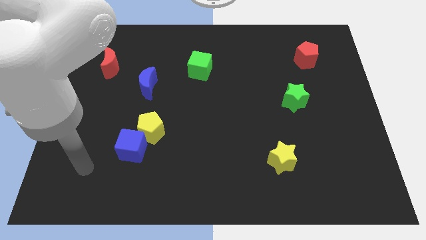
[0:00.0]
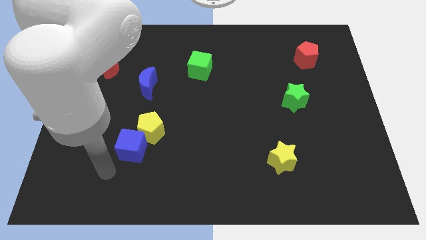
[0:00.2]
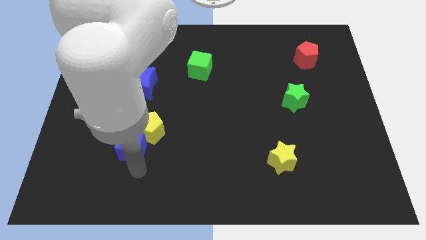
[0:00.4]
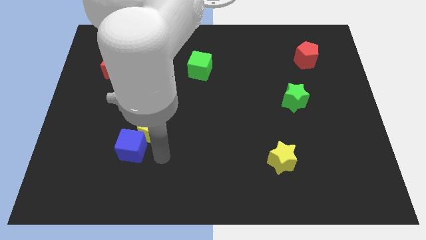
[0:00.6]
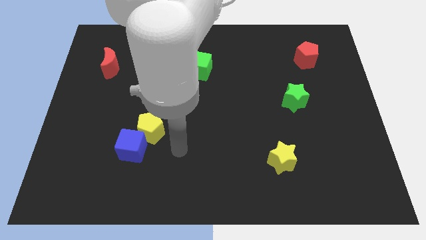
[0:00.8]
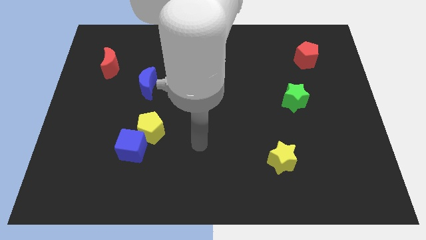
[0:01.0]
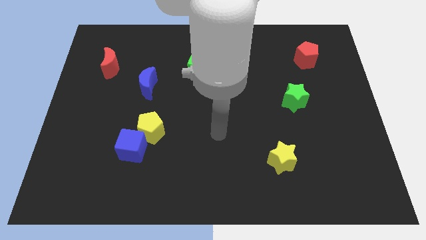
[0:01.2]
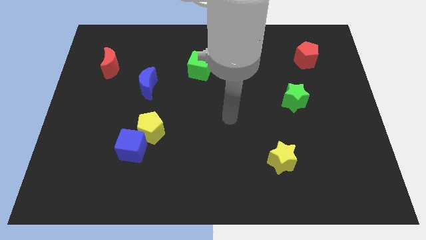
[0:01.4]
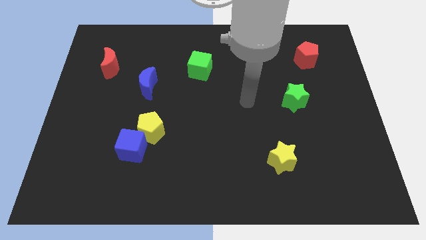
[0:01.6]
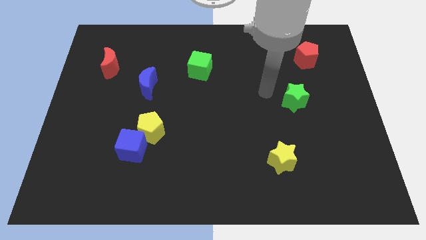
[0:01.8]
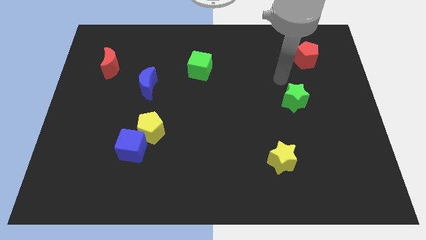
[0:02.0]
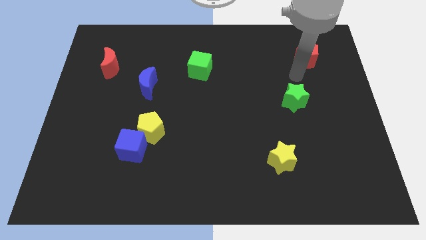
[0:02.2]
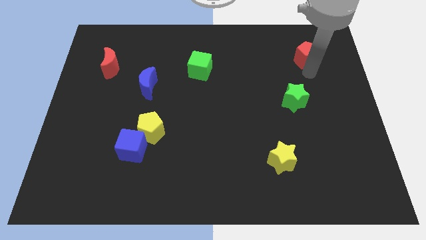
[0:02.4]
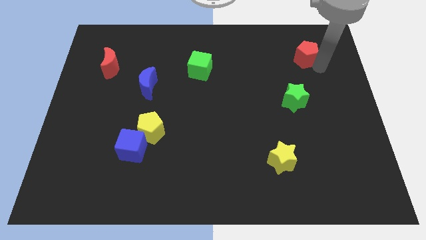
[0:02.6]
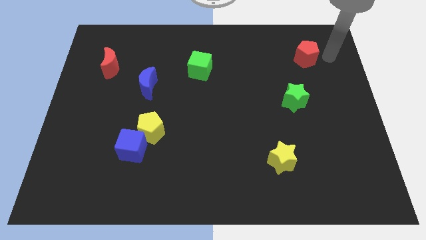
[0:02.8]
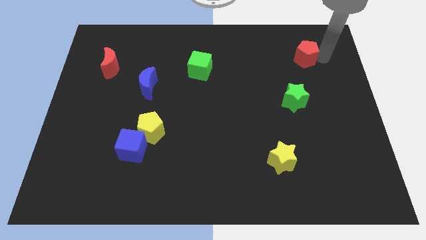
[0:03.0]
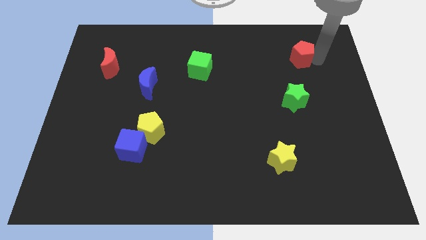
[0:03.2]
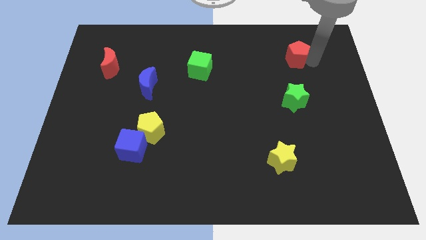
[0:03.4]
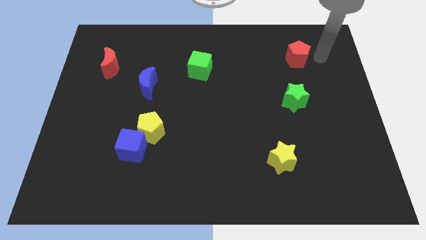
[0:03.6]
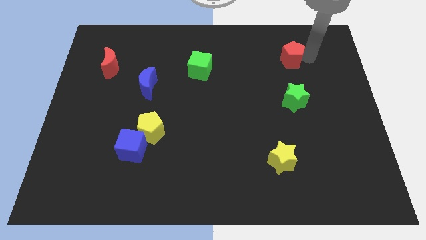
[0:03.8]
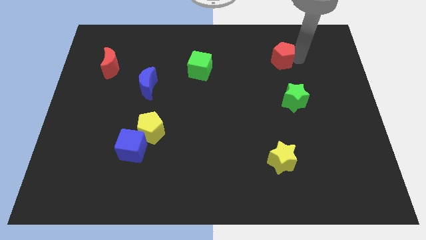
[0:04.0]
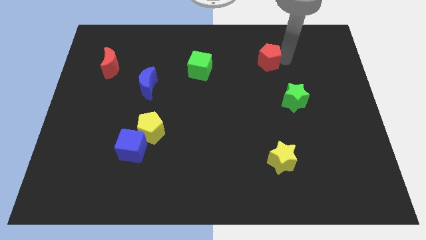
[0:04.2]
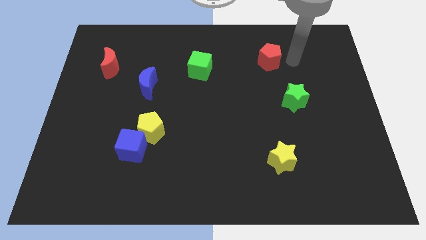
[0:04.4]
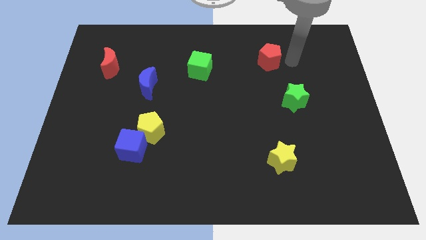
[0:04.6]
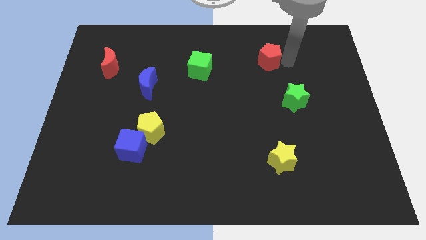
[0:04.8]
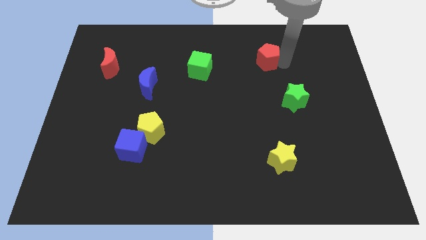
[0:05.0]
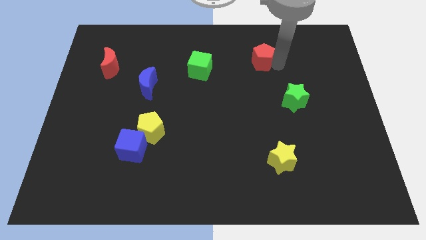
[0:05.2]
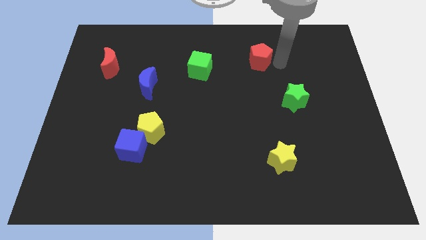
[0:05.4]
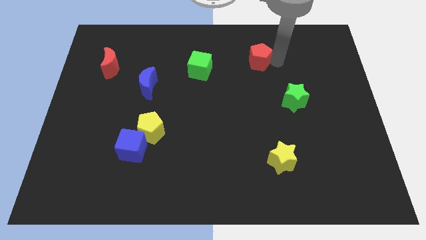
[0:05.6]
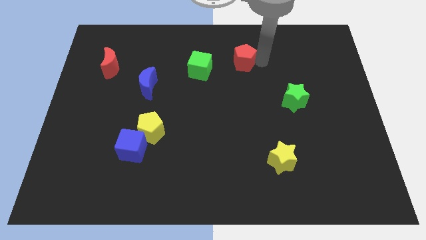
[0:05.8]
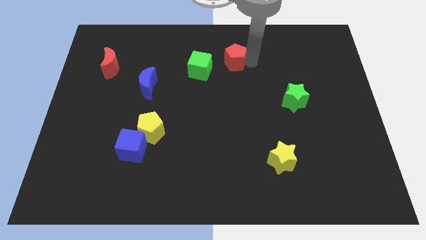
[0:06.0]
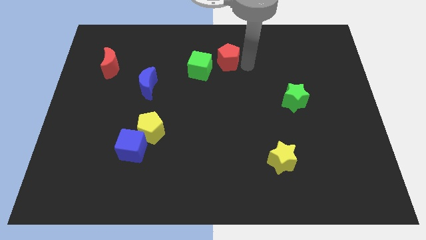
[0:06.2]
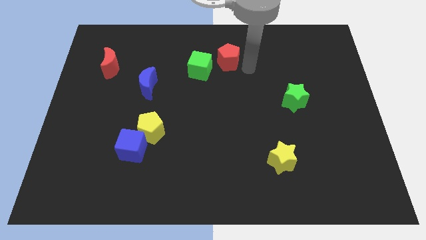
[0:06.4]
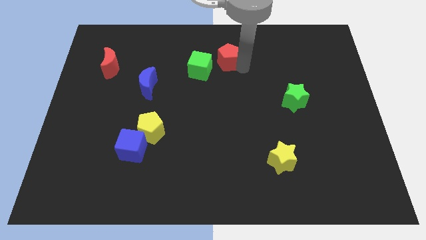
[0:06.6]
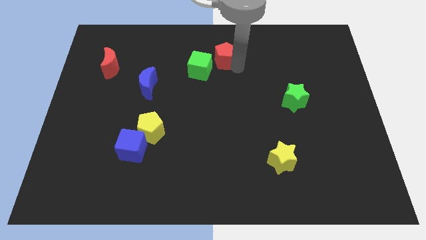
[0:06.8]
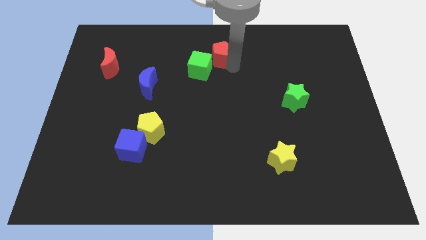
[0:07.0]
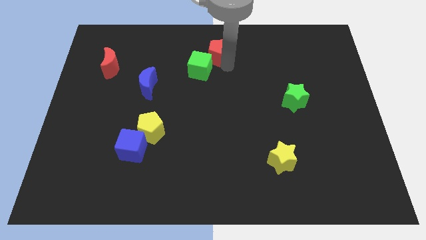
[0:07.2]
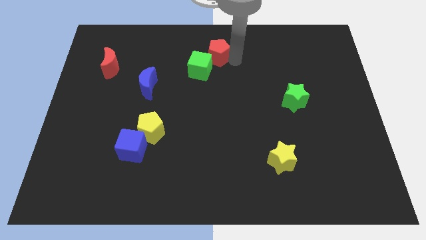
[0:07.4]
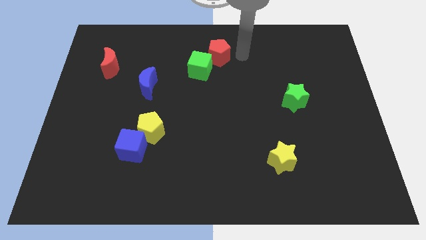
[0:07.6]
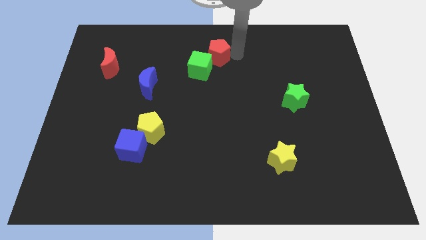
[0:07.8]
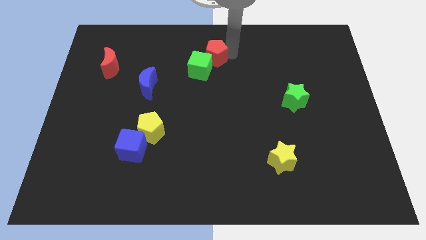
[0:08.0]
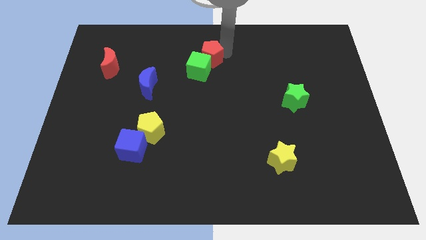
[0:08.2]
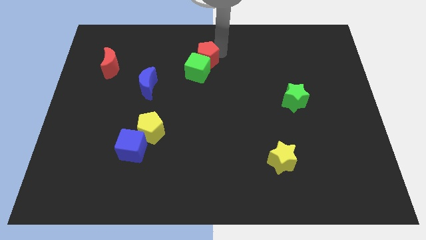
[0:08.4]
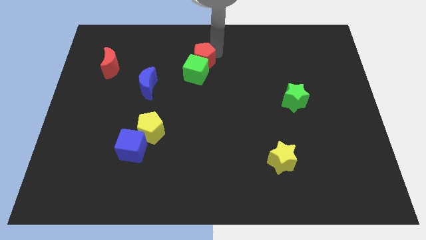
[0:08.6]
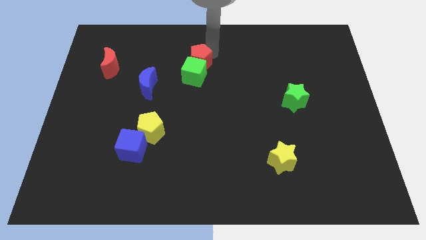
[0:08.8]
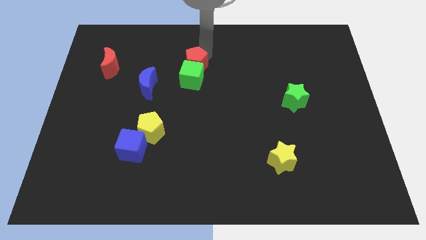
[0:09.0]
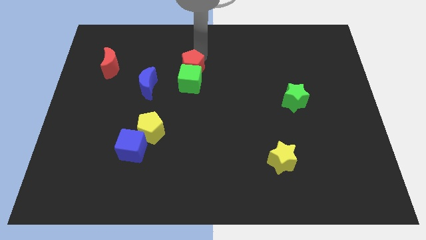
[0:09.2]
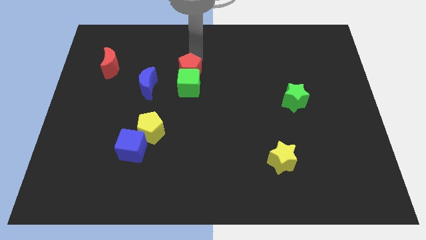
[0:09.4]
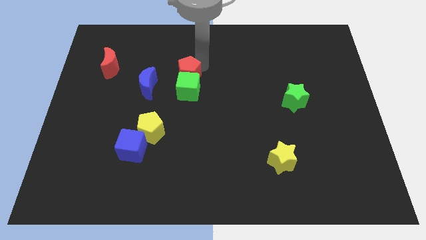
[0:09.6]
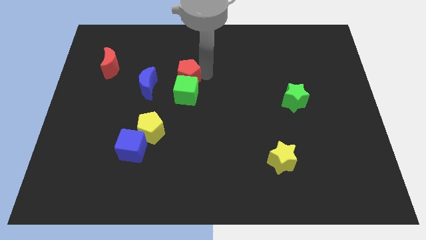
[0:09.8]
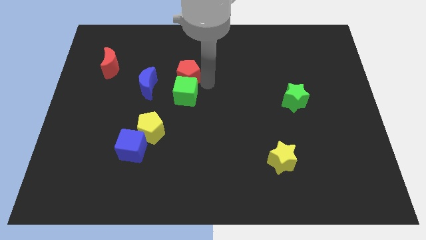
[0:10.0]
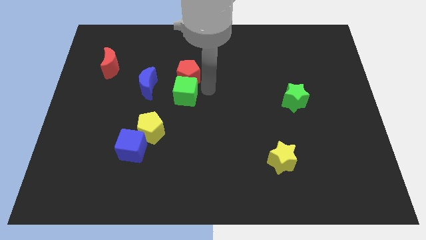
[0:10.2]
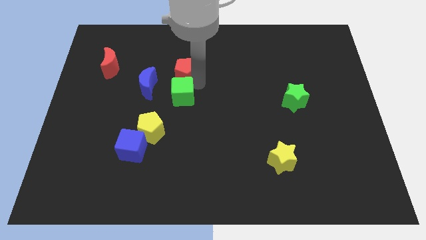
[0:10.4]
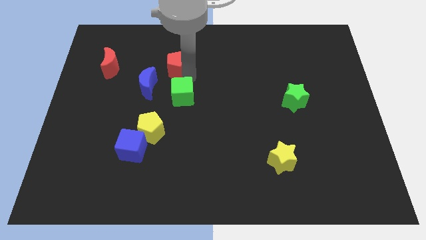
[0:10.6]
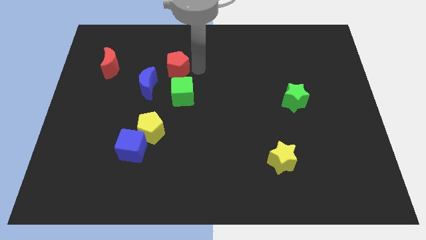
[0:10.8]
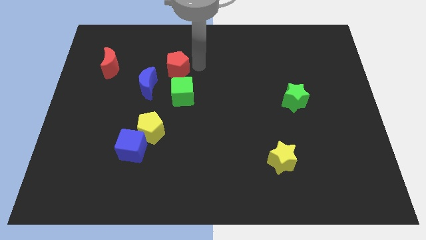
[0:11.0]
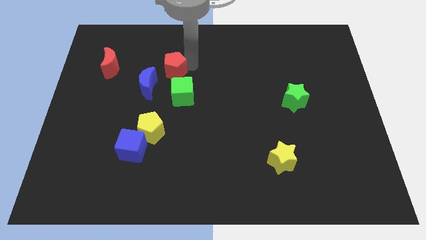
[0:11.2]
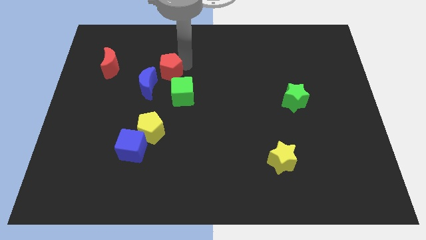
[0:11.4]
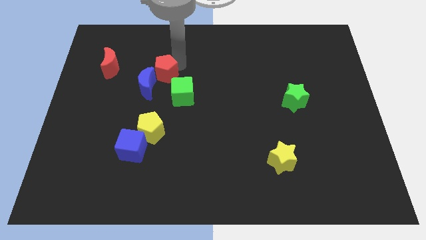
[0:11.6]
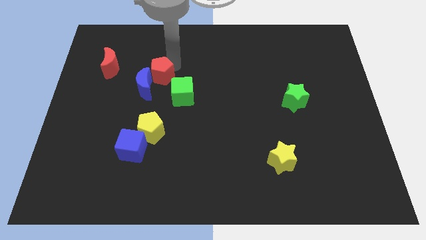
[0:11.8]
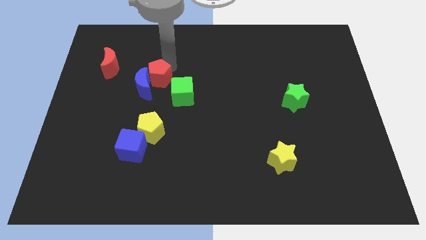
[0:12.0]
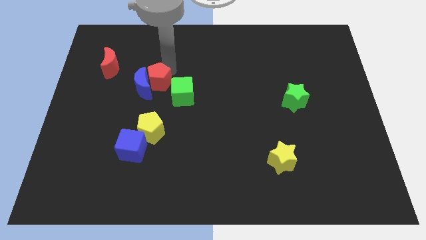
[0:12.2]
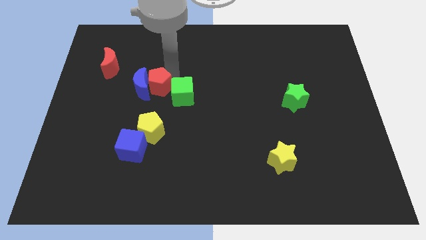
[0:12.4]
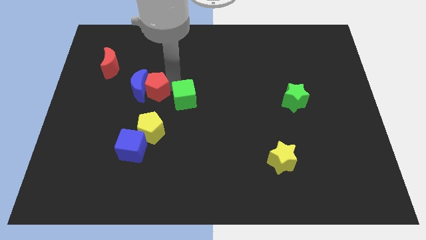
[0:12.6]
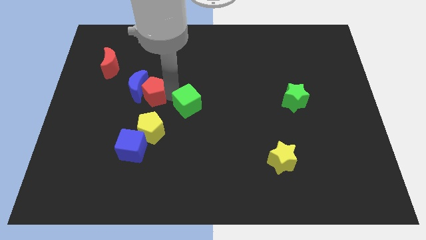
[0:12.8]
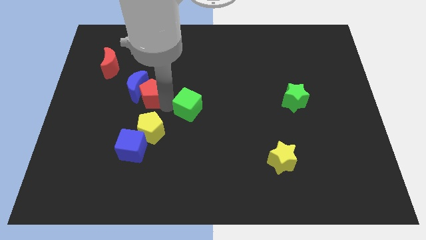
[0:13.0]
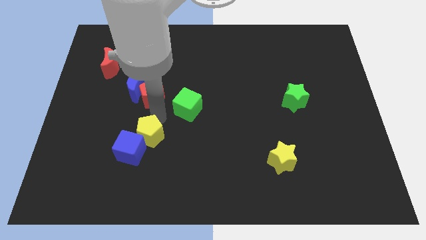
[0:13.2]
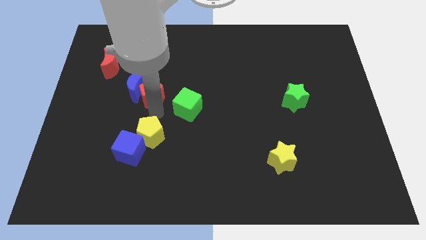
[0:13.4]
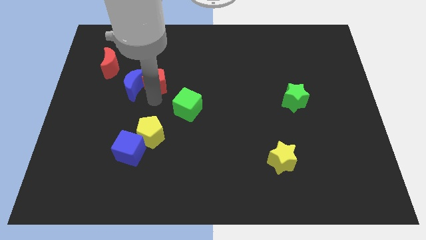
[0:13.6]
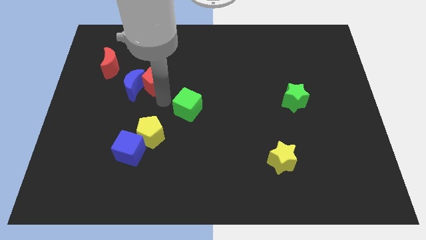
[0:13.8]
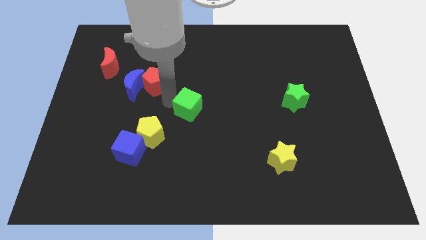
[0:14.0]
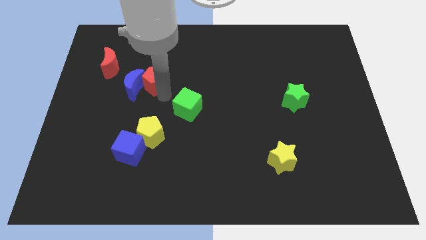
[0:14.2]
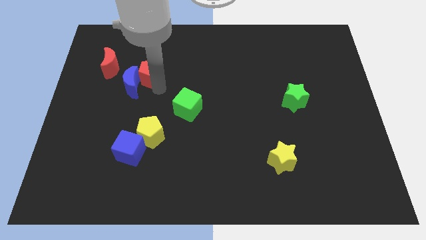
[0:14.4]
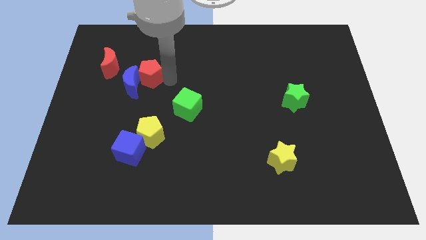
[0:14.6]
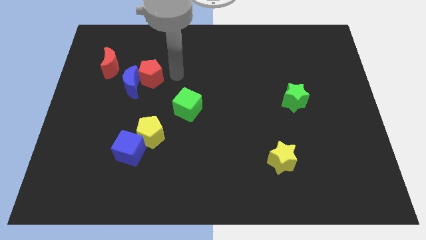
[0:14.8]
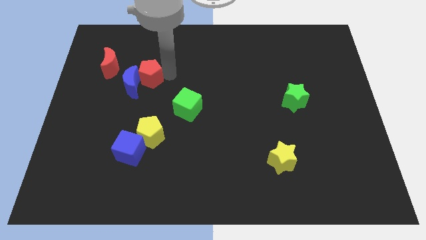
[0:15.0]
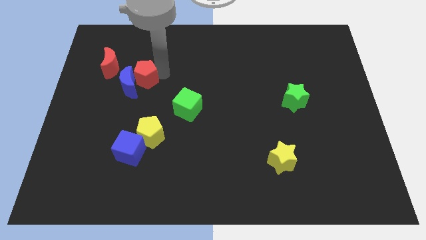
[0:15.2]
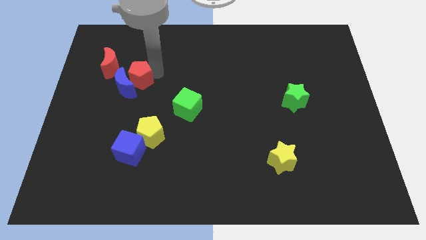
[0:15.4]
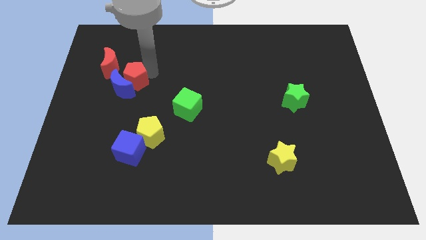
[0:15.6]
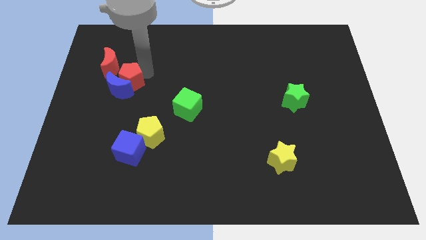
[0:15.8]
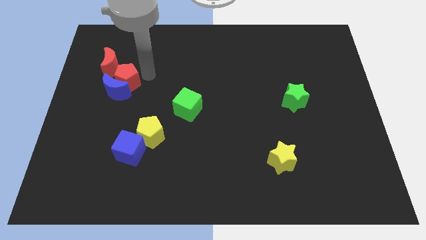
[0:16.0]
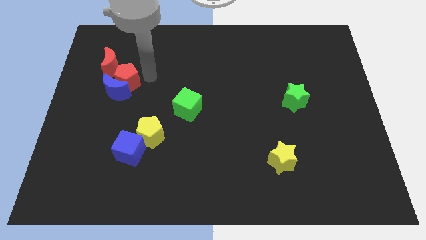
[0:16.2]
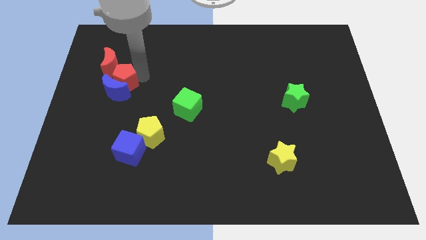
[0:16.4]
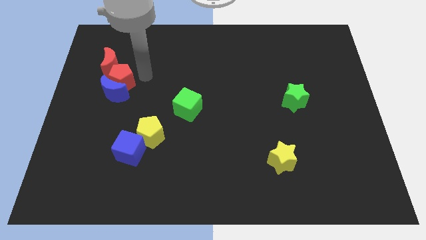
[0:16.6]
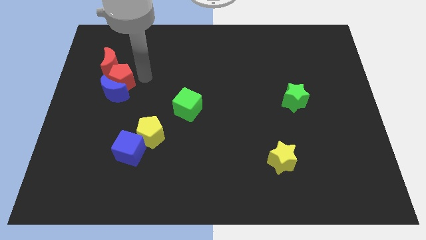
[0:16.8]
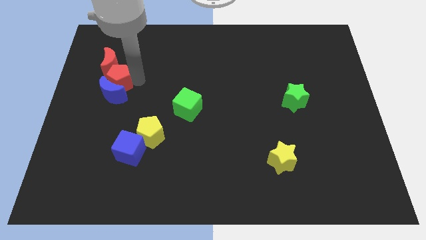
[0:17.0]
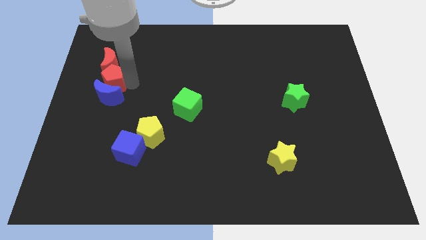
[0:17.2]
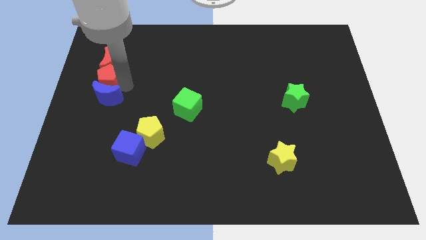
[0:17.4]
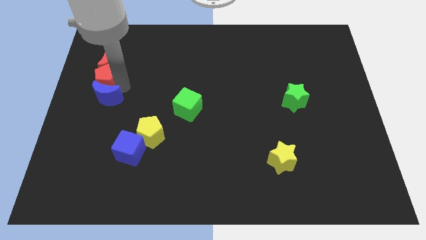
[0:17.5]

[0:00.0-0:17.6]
move the red pentagon to the left side of the board
